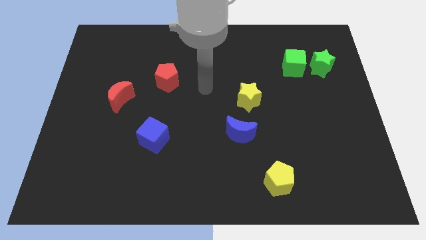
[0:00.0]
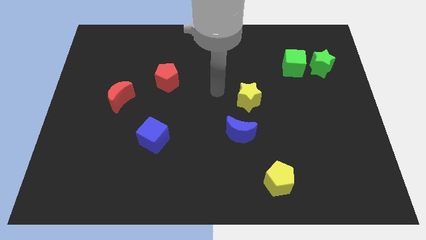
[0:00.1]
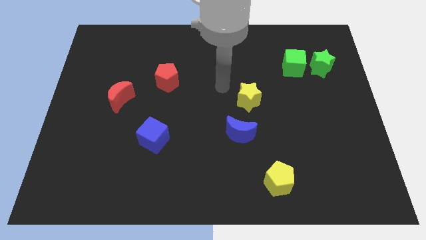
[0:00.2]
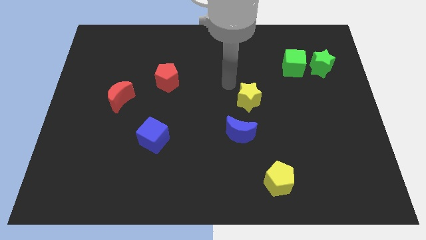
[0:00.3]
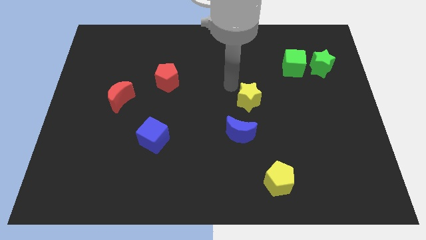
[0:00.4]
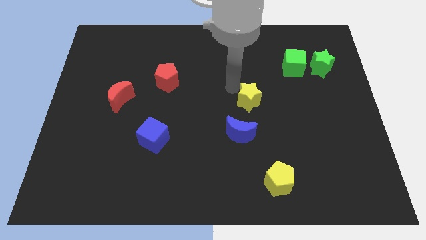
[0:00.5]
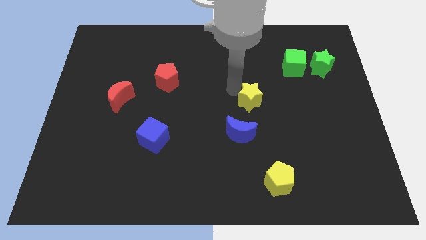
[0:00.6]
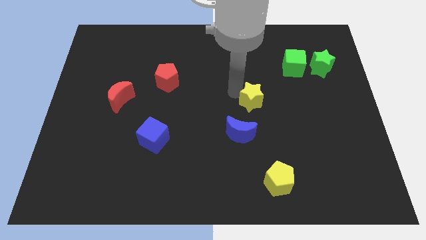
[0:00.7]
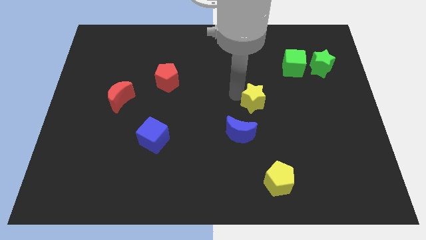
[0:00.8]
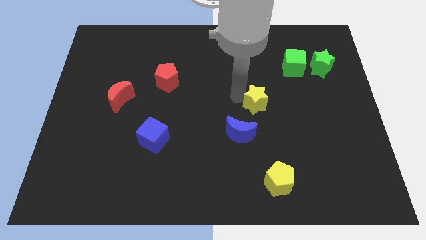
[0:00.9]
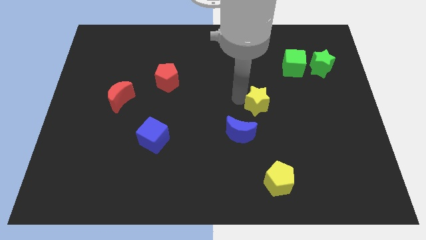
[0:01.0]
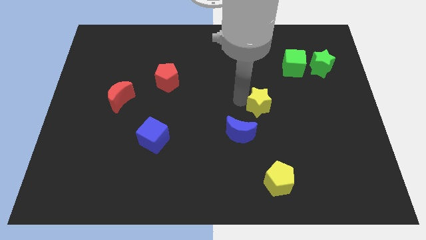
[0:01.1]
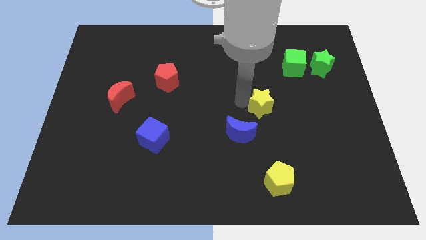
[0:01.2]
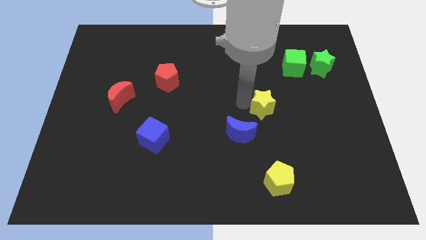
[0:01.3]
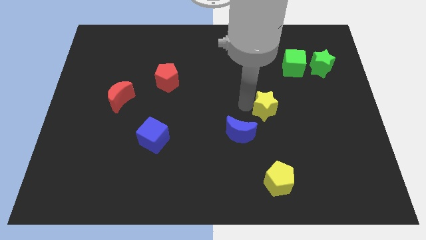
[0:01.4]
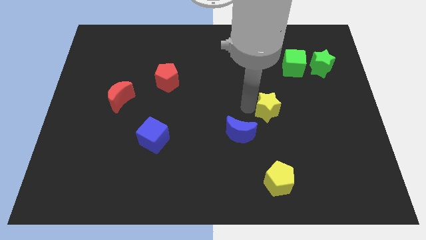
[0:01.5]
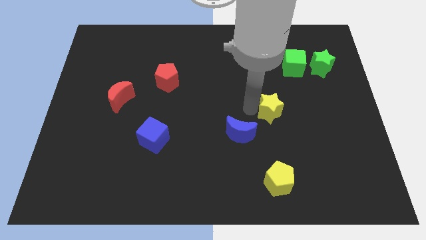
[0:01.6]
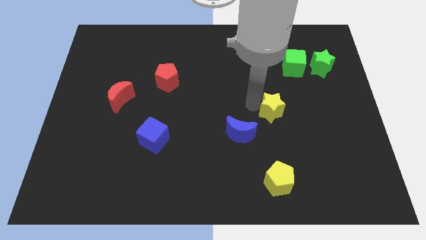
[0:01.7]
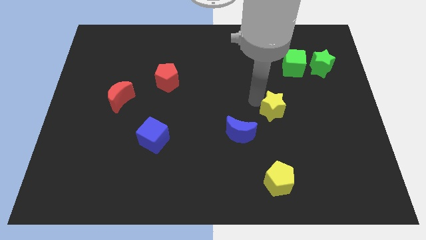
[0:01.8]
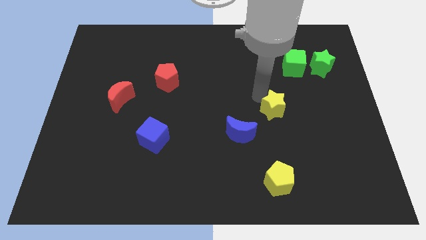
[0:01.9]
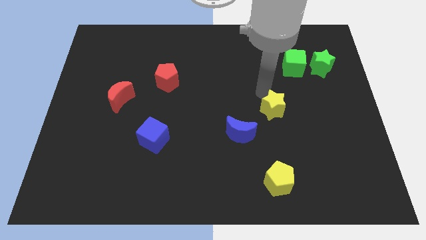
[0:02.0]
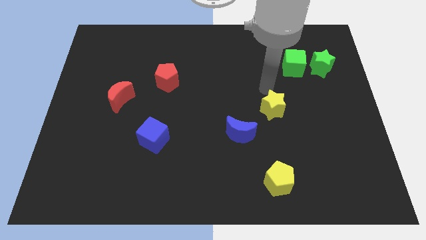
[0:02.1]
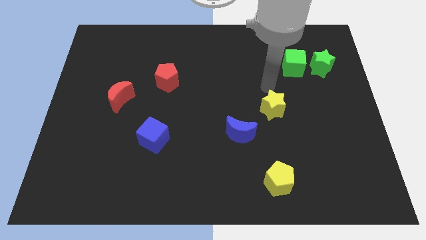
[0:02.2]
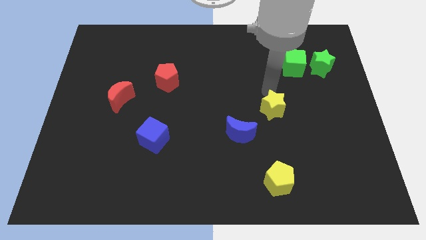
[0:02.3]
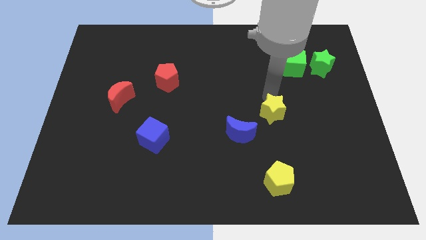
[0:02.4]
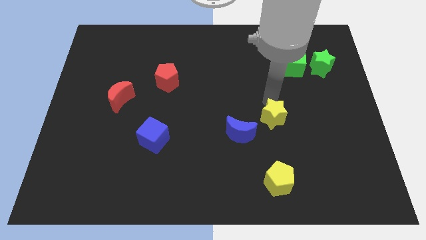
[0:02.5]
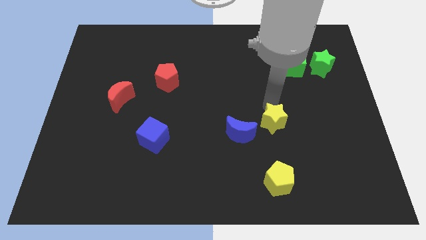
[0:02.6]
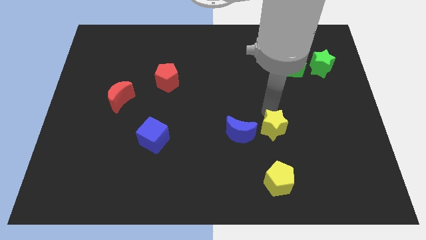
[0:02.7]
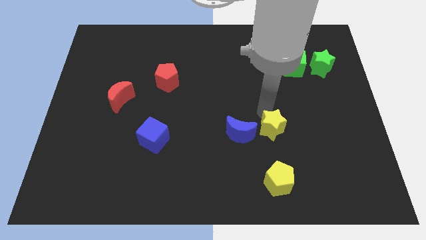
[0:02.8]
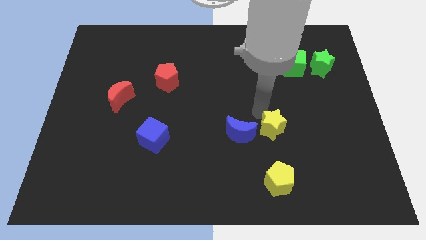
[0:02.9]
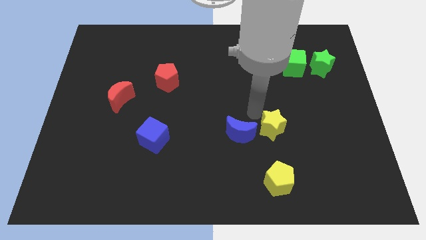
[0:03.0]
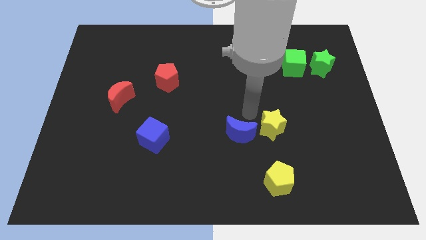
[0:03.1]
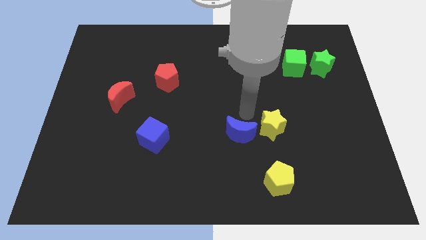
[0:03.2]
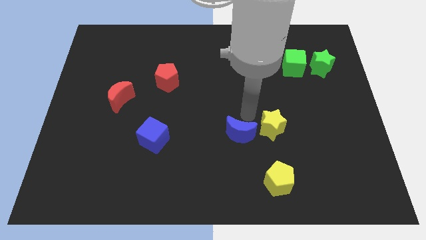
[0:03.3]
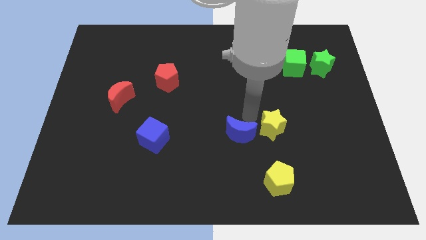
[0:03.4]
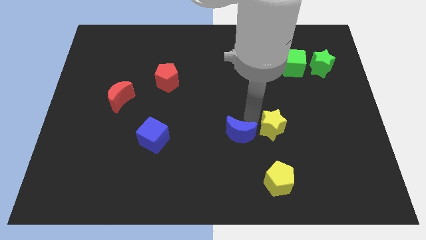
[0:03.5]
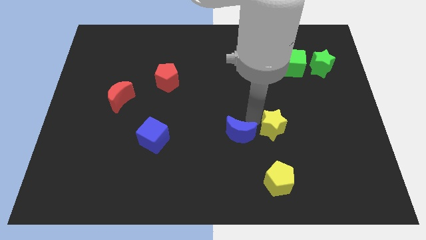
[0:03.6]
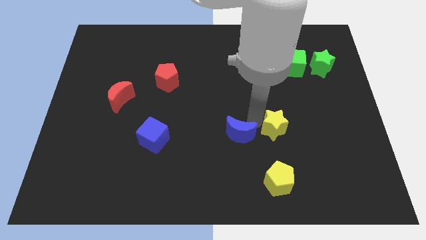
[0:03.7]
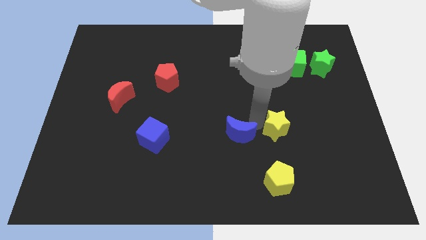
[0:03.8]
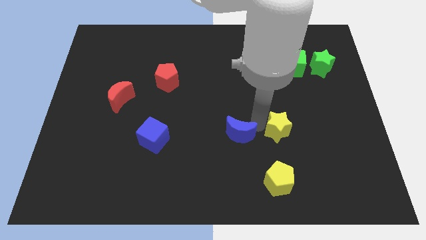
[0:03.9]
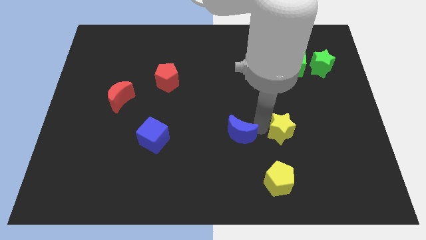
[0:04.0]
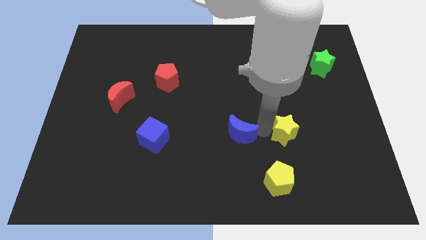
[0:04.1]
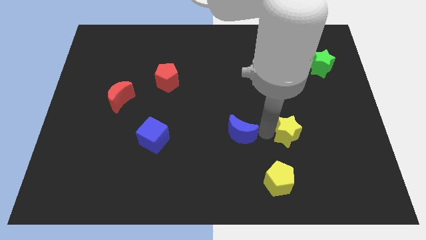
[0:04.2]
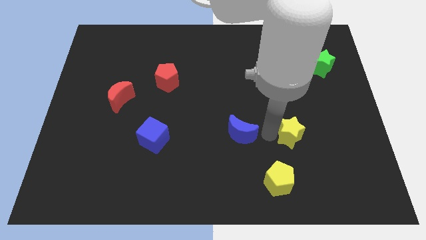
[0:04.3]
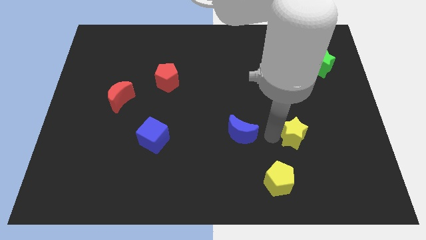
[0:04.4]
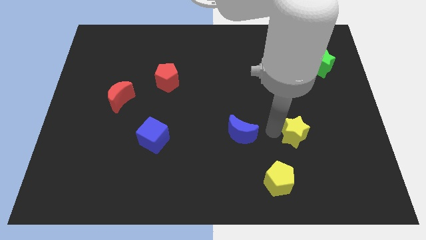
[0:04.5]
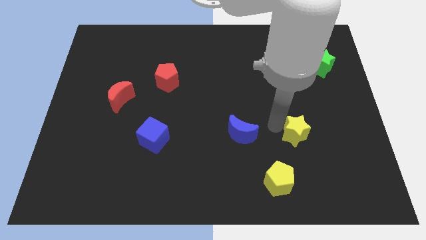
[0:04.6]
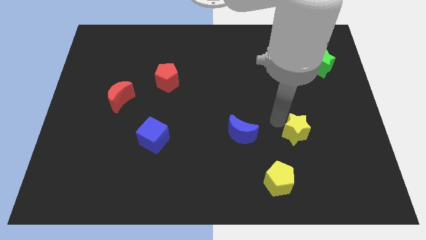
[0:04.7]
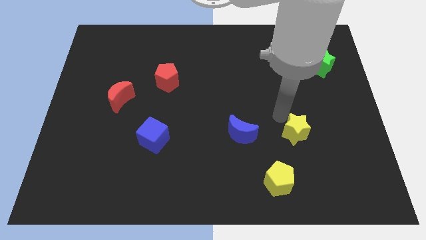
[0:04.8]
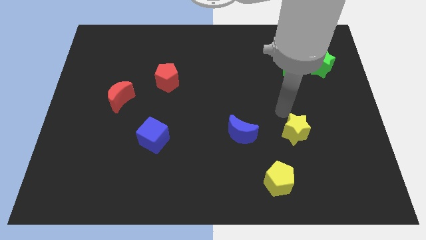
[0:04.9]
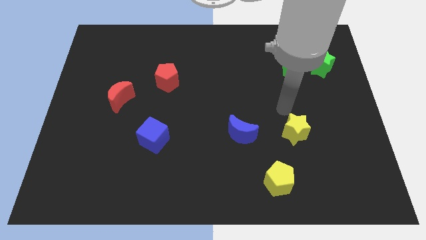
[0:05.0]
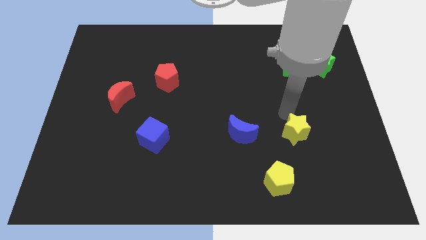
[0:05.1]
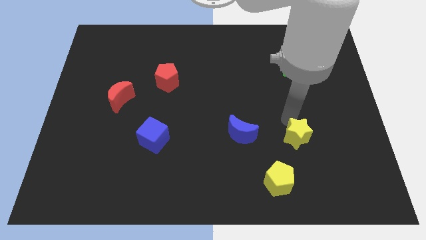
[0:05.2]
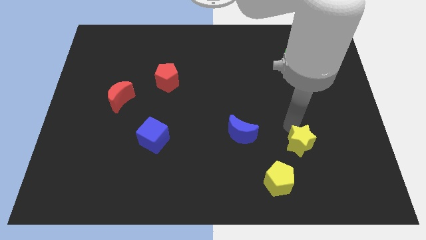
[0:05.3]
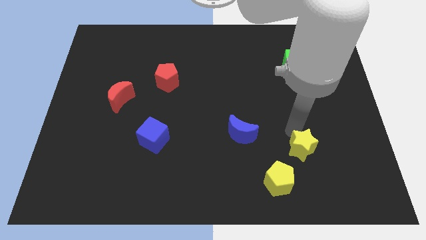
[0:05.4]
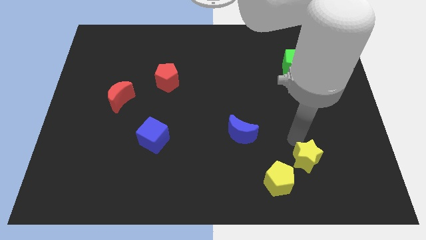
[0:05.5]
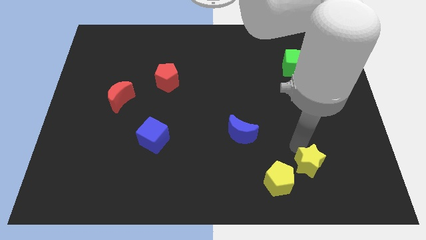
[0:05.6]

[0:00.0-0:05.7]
put the yellow star just right of the yellow pentagon
